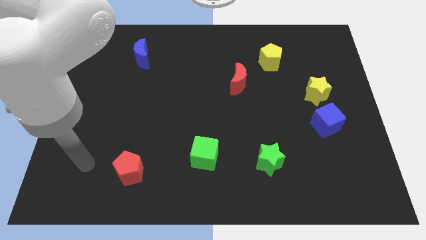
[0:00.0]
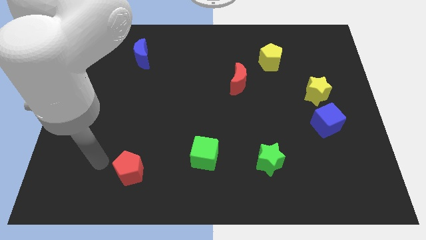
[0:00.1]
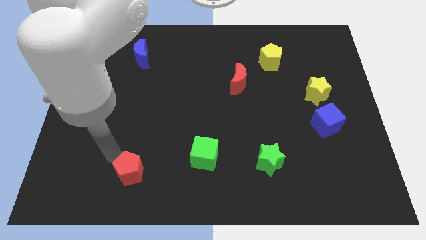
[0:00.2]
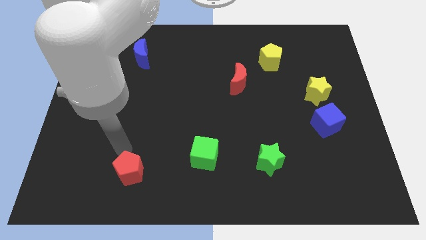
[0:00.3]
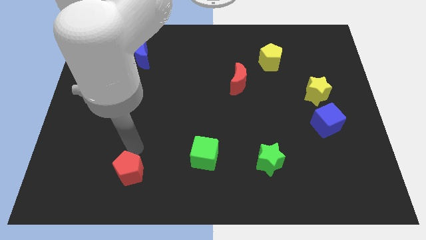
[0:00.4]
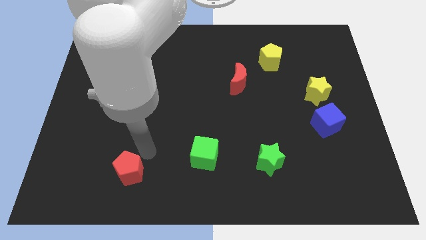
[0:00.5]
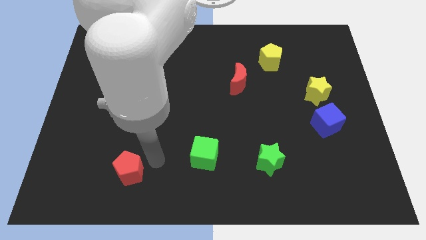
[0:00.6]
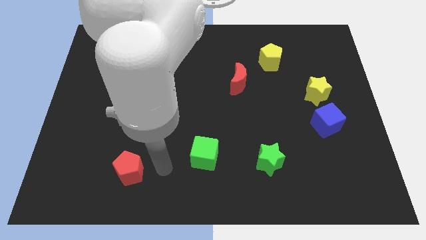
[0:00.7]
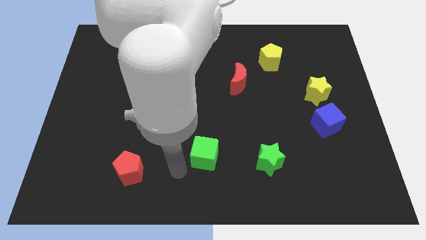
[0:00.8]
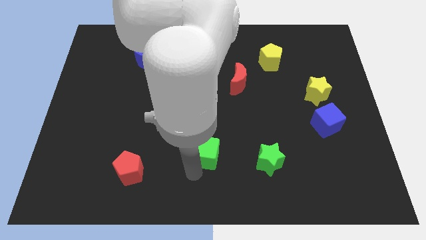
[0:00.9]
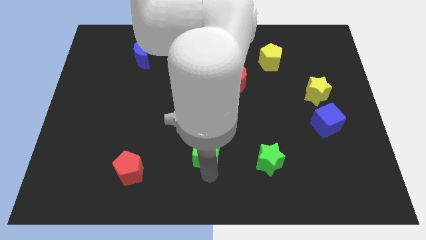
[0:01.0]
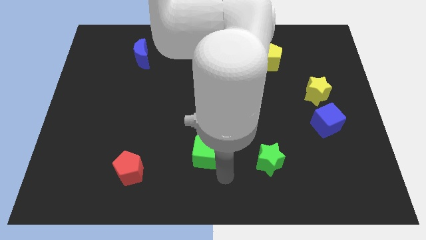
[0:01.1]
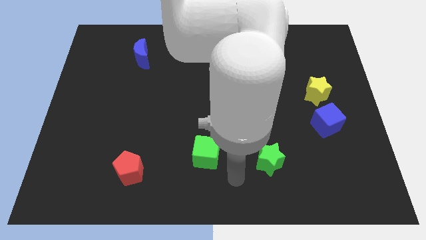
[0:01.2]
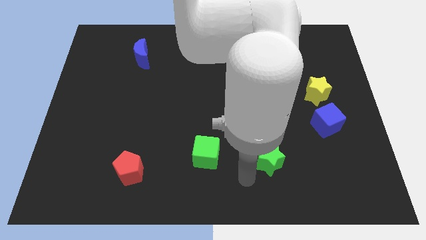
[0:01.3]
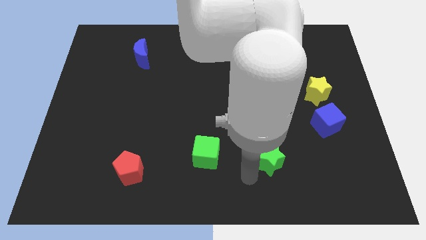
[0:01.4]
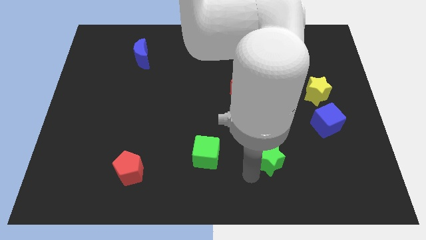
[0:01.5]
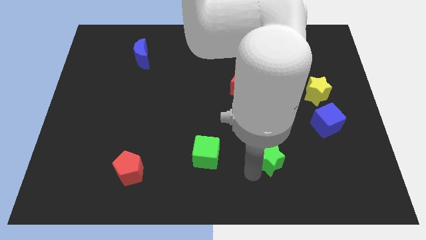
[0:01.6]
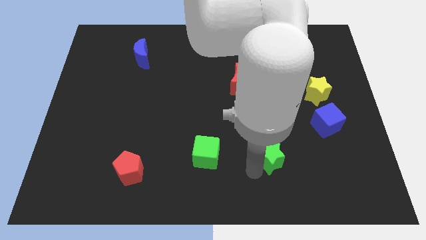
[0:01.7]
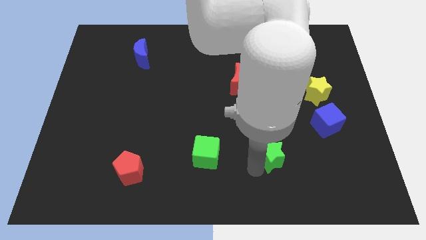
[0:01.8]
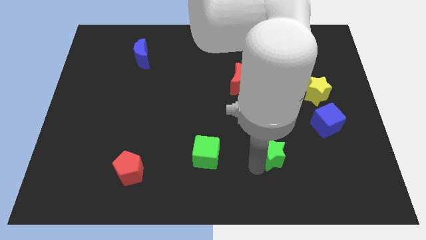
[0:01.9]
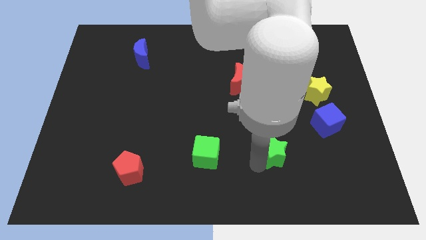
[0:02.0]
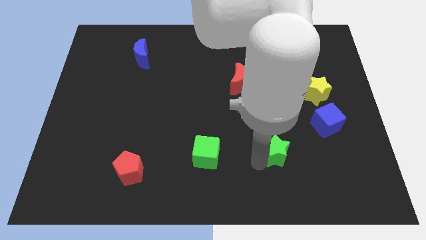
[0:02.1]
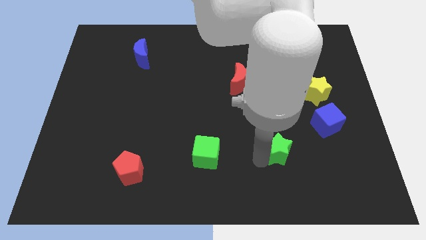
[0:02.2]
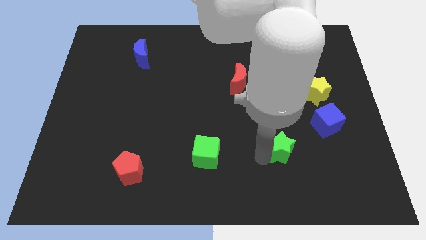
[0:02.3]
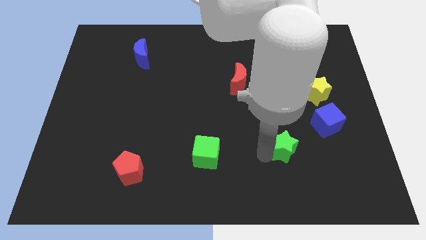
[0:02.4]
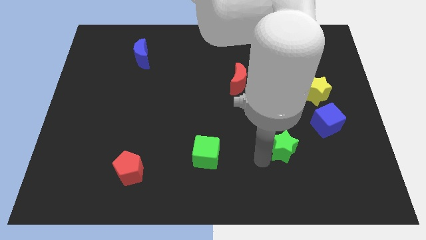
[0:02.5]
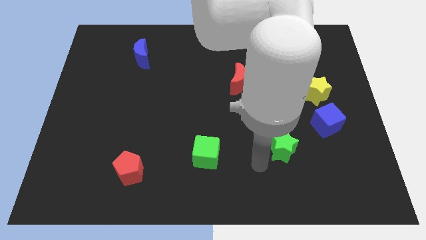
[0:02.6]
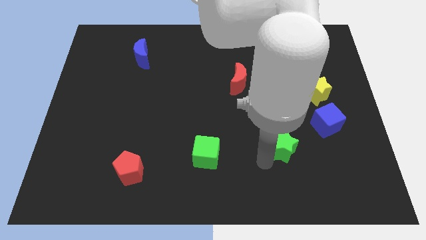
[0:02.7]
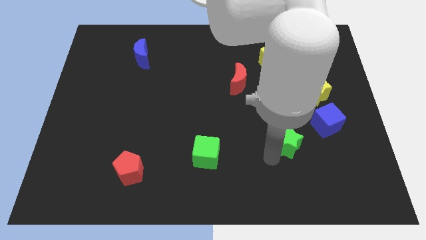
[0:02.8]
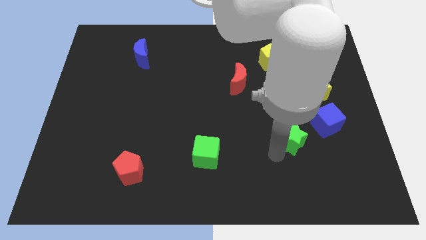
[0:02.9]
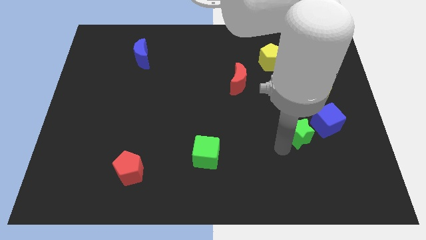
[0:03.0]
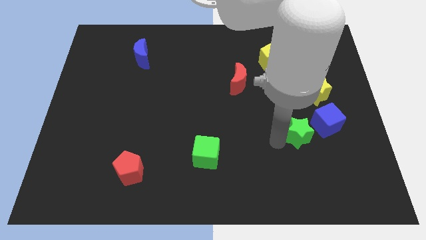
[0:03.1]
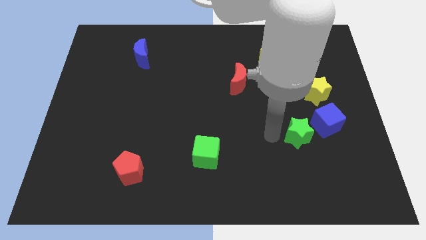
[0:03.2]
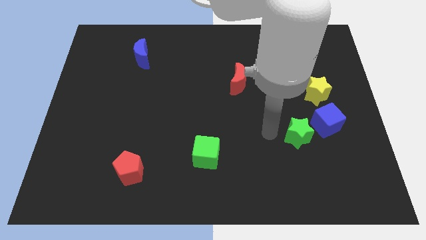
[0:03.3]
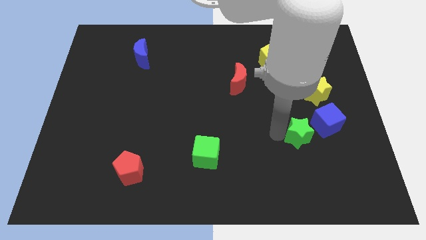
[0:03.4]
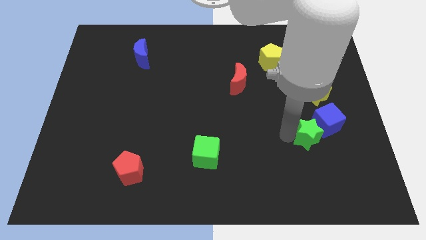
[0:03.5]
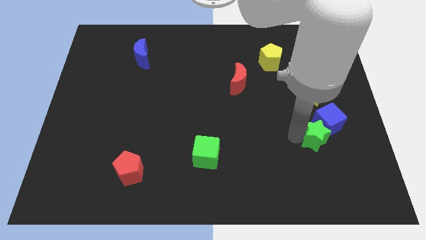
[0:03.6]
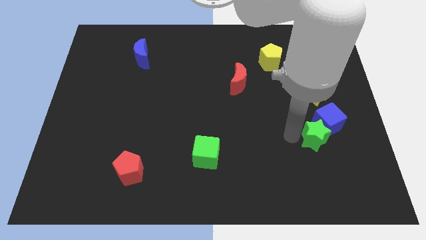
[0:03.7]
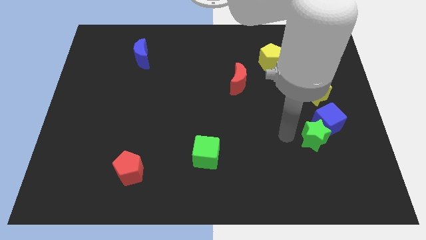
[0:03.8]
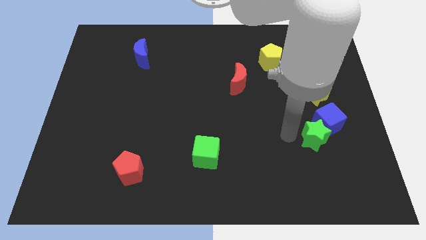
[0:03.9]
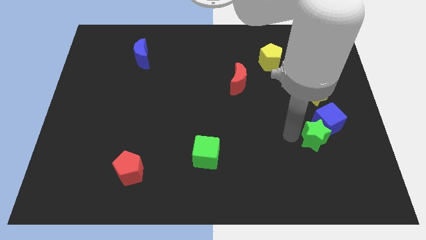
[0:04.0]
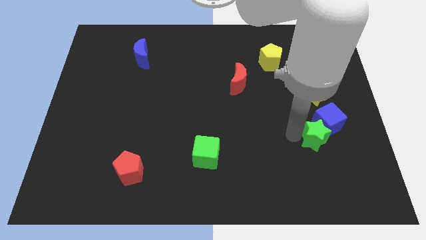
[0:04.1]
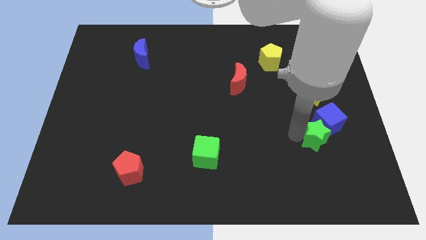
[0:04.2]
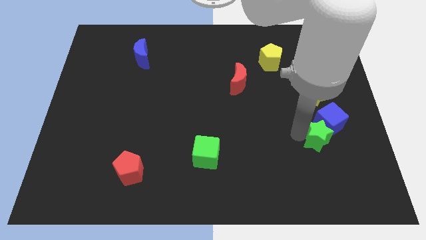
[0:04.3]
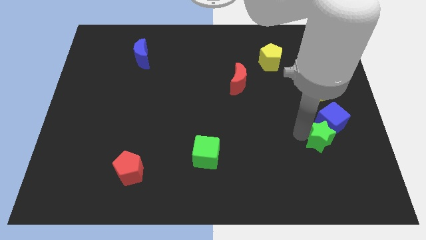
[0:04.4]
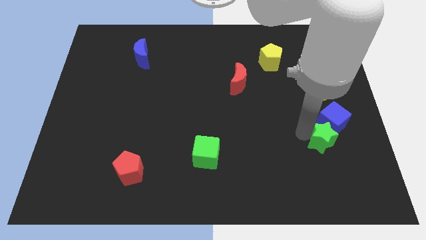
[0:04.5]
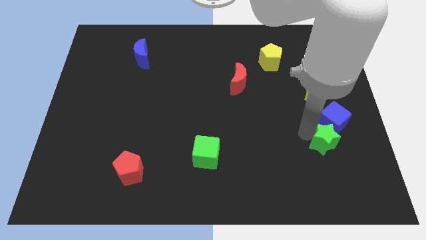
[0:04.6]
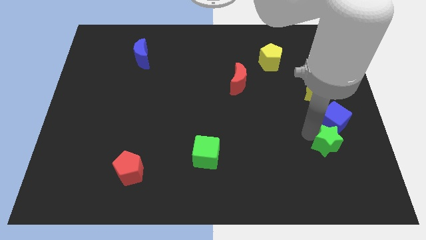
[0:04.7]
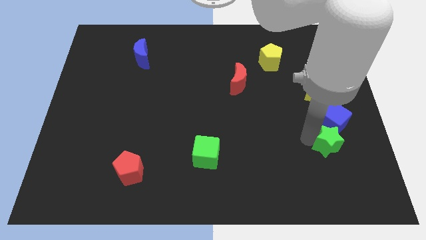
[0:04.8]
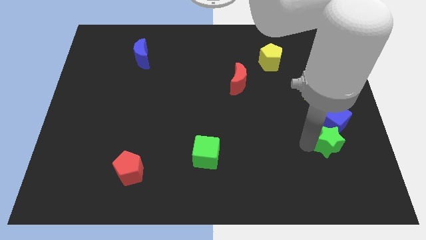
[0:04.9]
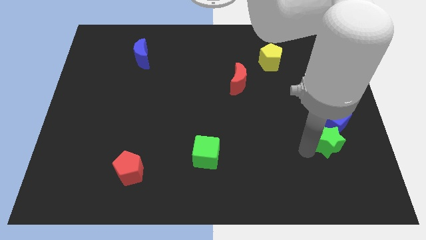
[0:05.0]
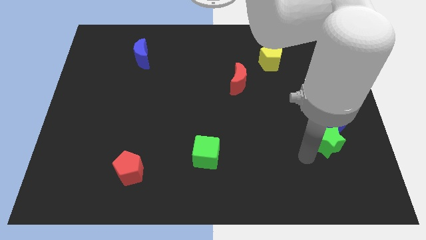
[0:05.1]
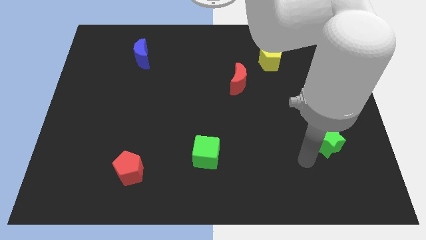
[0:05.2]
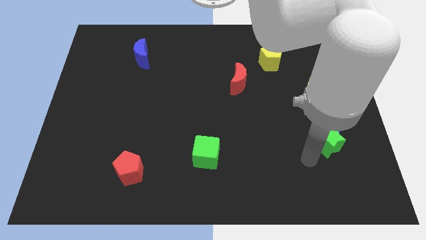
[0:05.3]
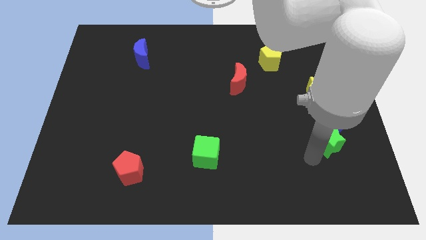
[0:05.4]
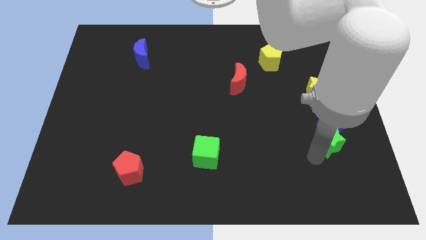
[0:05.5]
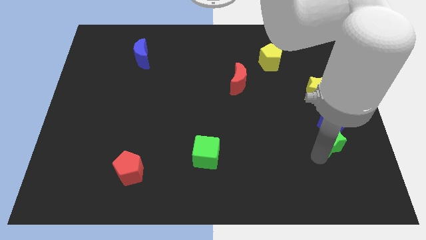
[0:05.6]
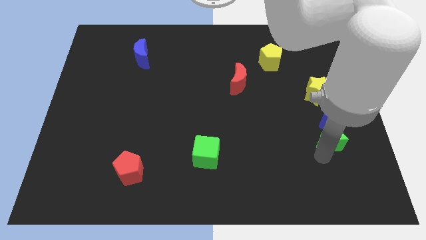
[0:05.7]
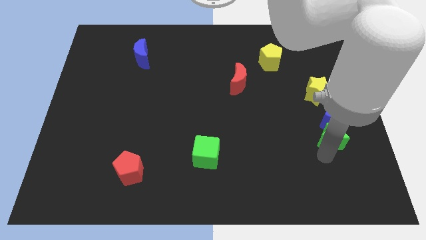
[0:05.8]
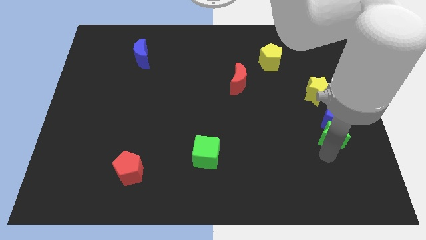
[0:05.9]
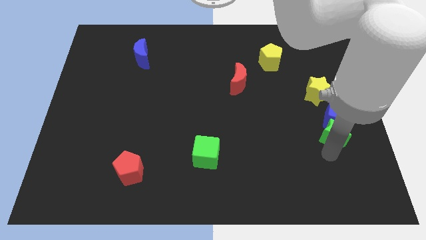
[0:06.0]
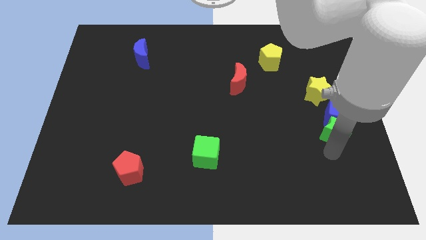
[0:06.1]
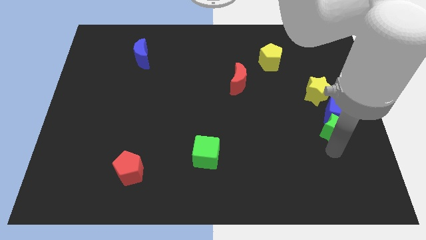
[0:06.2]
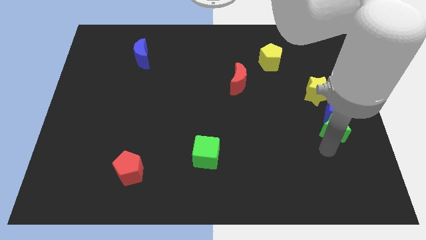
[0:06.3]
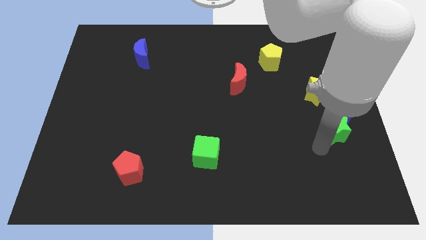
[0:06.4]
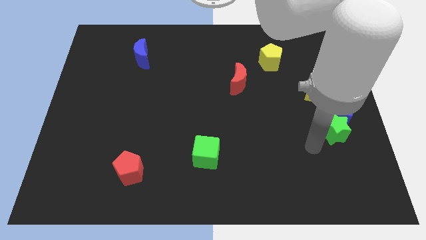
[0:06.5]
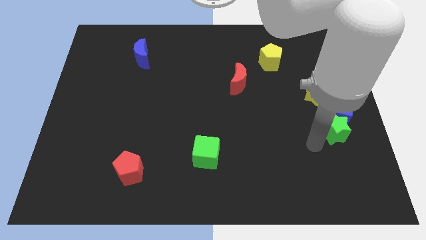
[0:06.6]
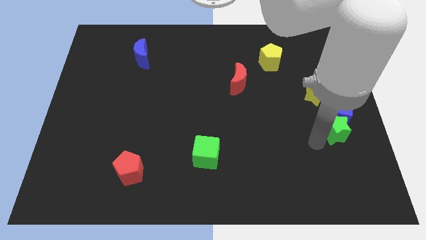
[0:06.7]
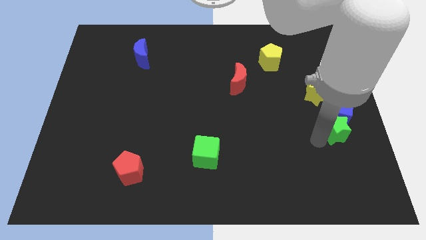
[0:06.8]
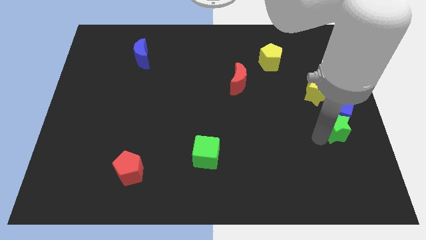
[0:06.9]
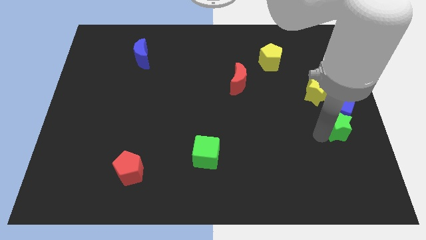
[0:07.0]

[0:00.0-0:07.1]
move the green star to the right side
